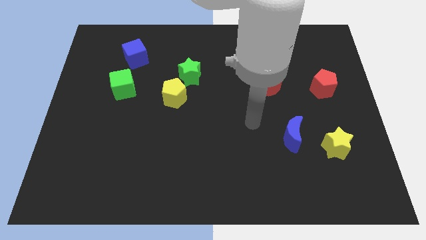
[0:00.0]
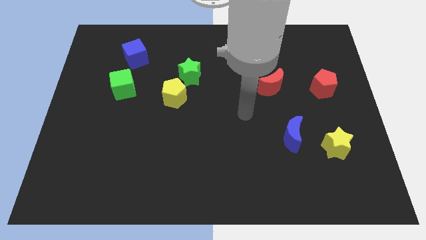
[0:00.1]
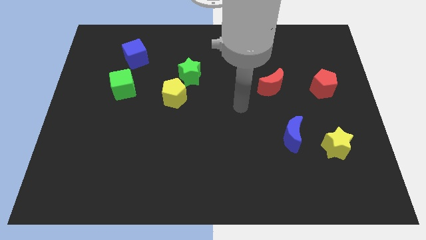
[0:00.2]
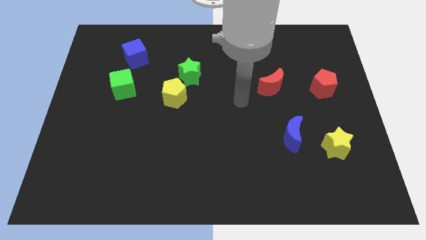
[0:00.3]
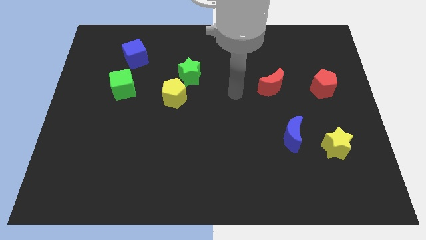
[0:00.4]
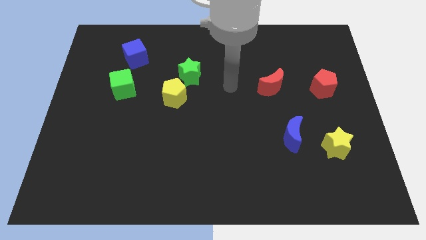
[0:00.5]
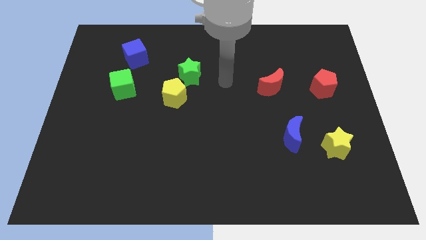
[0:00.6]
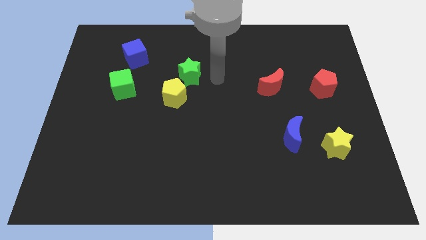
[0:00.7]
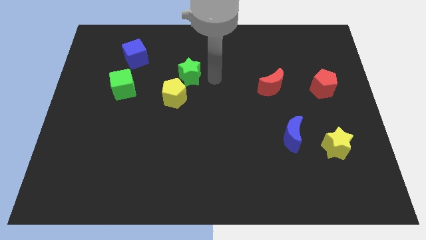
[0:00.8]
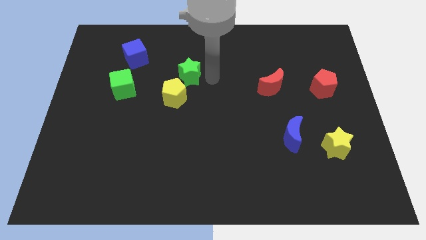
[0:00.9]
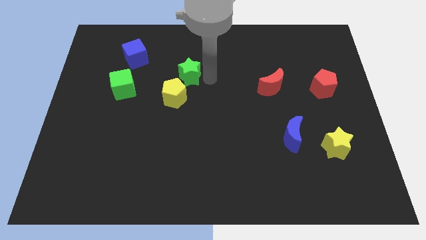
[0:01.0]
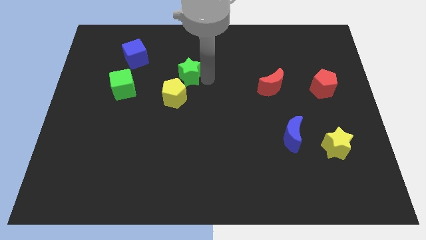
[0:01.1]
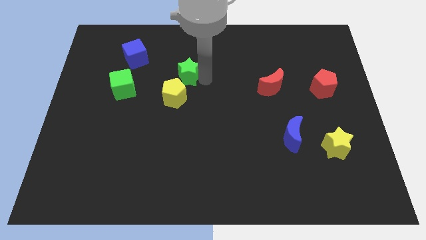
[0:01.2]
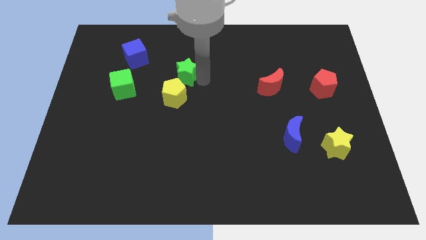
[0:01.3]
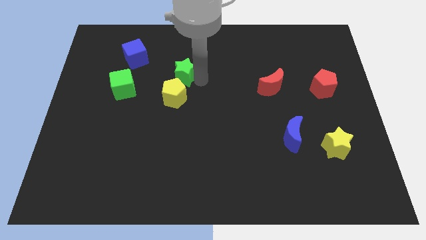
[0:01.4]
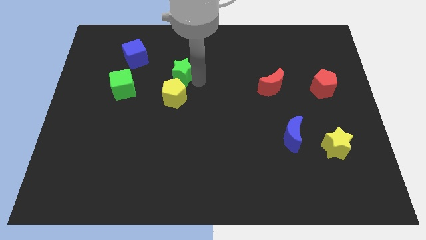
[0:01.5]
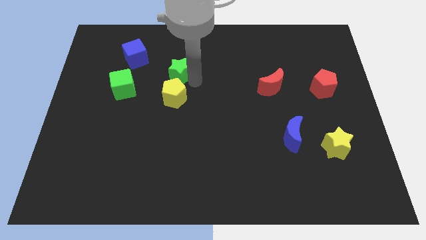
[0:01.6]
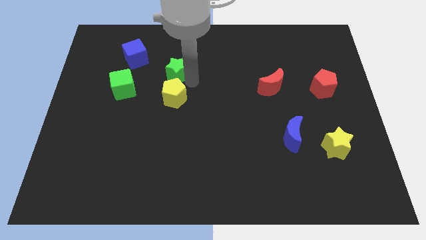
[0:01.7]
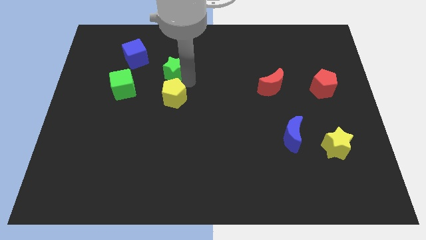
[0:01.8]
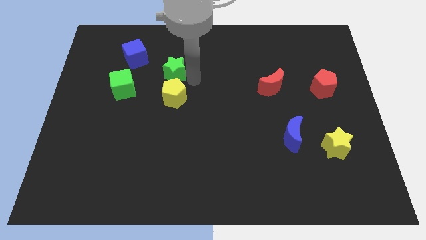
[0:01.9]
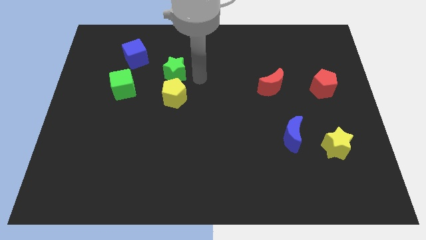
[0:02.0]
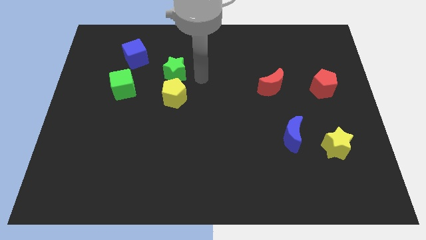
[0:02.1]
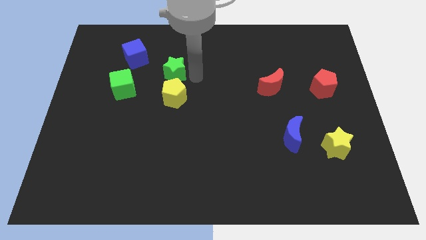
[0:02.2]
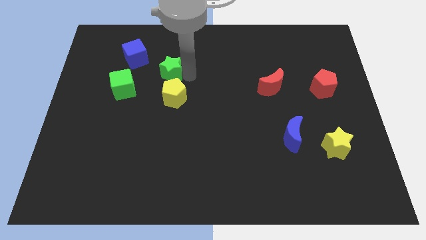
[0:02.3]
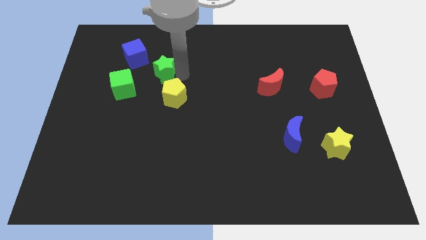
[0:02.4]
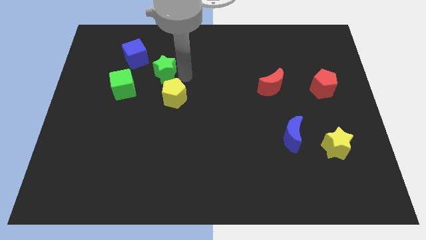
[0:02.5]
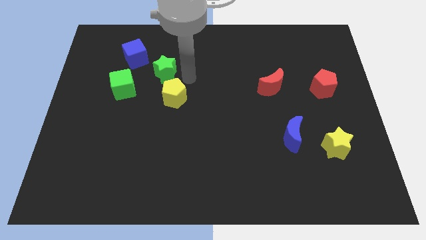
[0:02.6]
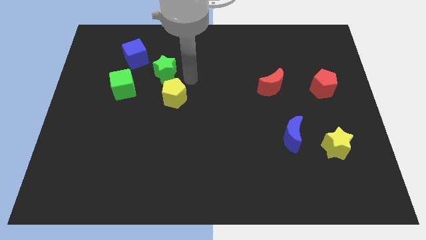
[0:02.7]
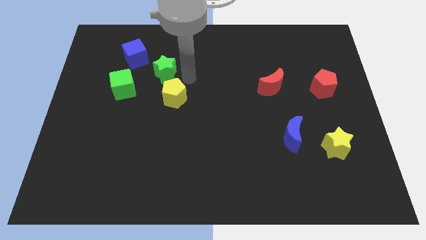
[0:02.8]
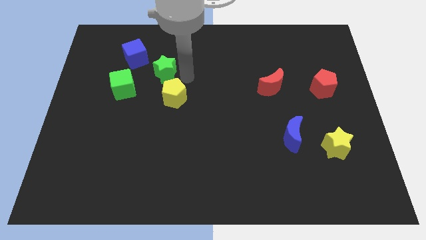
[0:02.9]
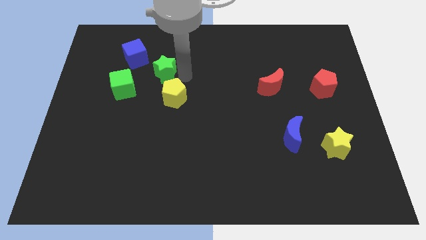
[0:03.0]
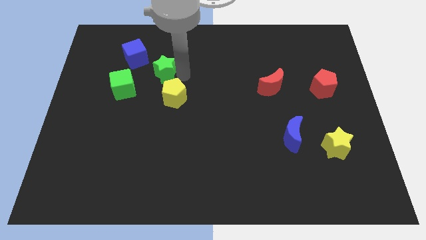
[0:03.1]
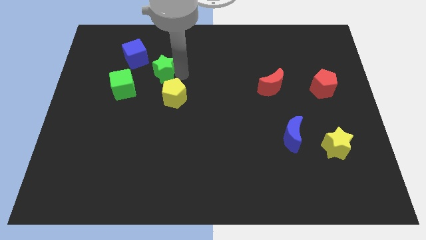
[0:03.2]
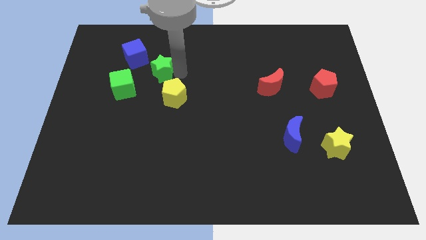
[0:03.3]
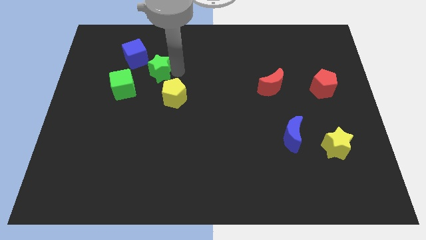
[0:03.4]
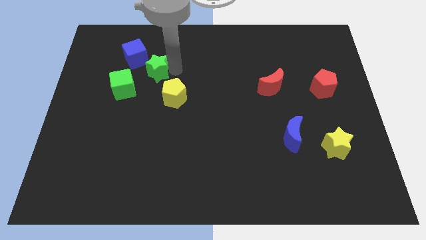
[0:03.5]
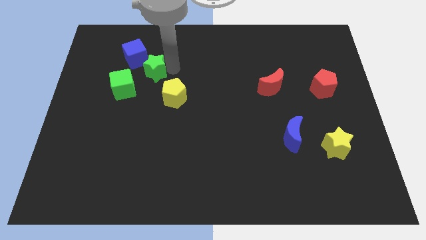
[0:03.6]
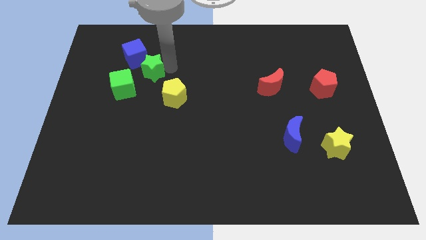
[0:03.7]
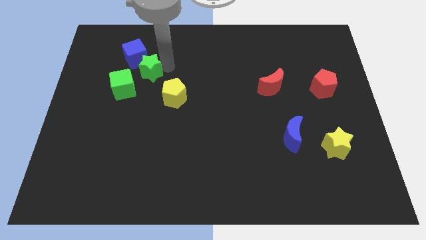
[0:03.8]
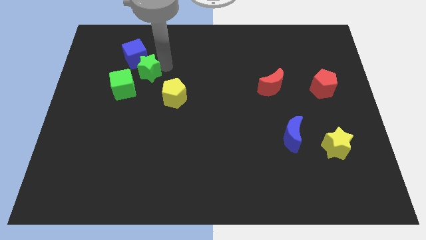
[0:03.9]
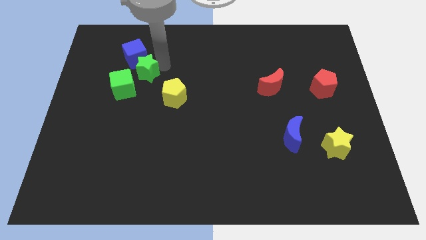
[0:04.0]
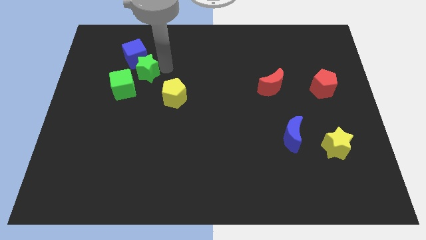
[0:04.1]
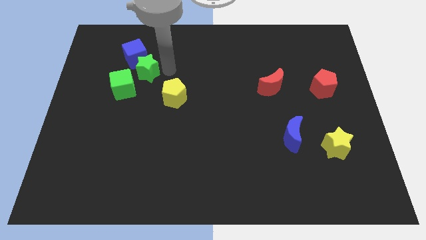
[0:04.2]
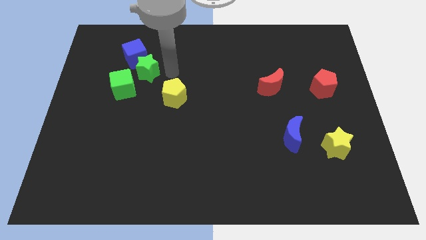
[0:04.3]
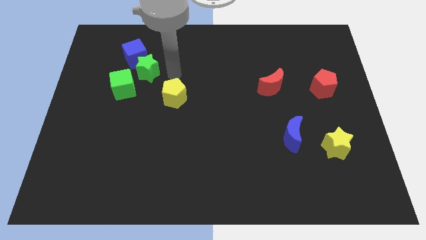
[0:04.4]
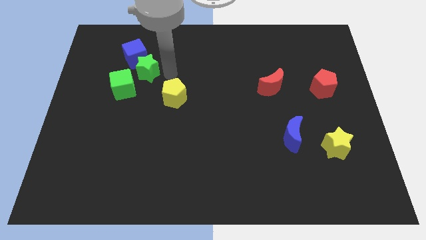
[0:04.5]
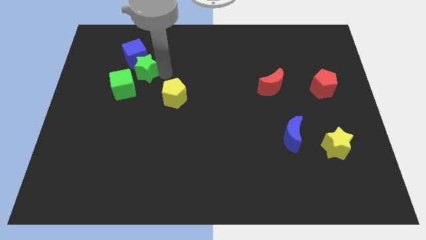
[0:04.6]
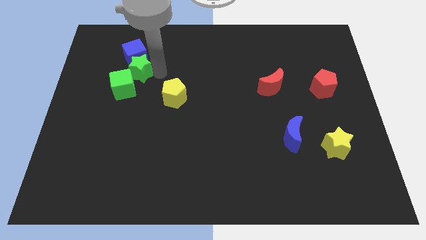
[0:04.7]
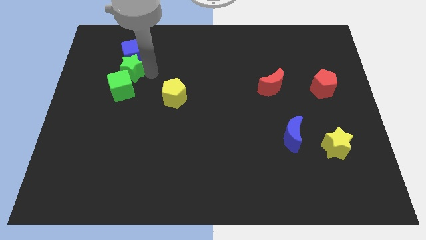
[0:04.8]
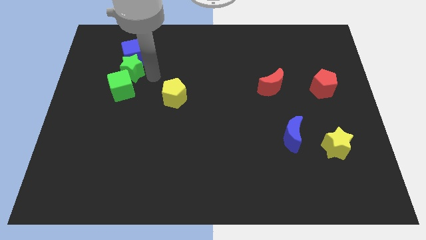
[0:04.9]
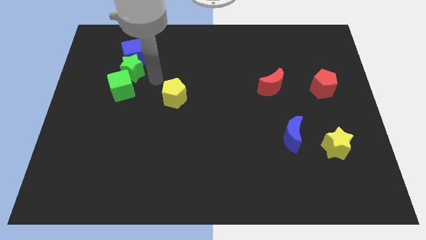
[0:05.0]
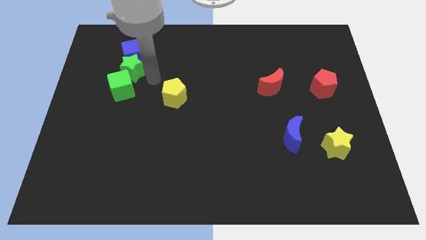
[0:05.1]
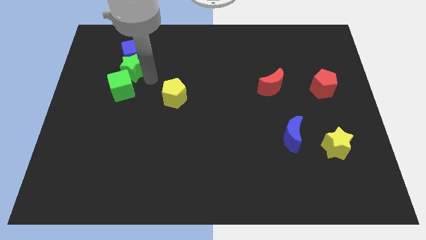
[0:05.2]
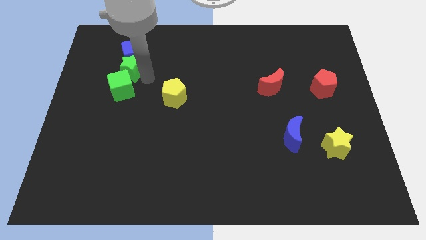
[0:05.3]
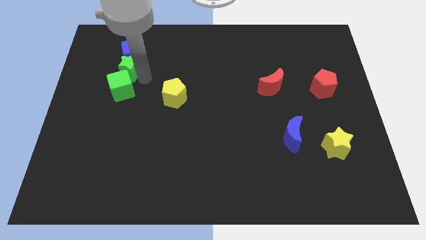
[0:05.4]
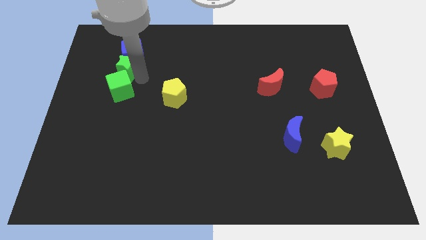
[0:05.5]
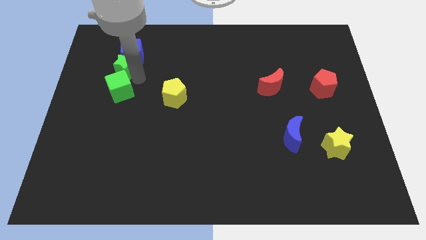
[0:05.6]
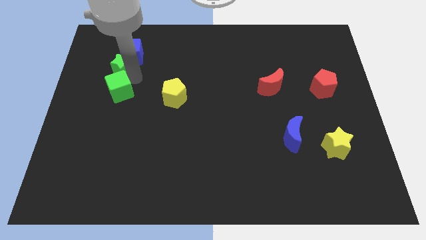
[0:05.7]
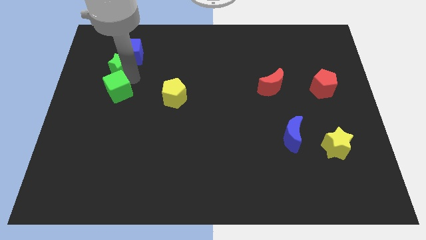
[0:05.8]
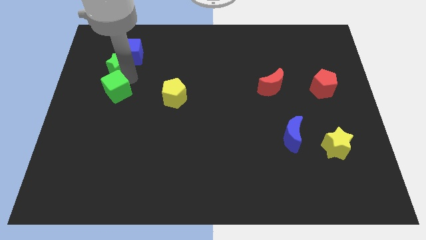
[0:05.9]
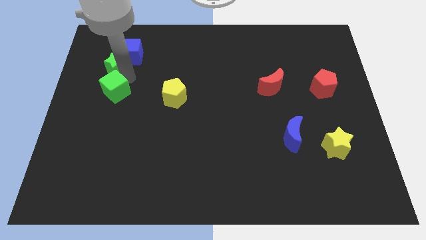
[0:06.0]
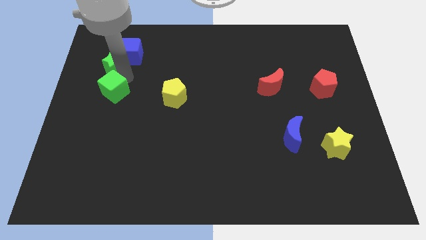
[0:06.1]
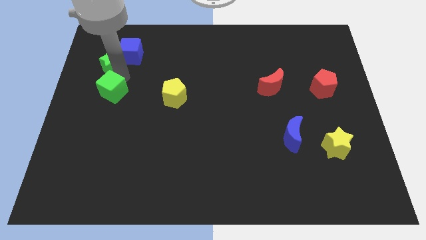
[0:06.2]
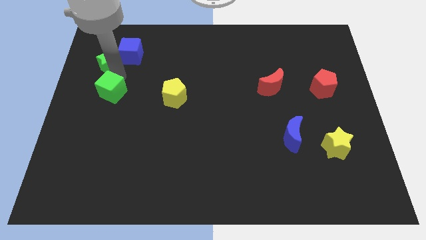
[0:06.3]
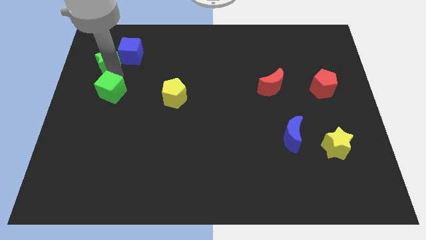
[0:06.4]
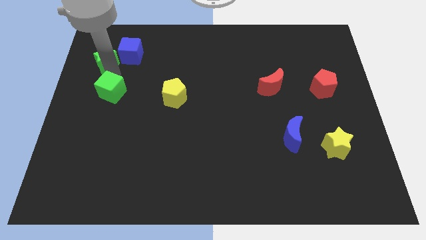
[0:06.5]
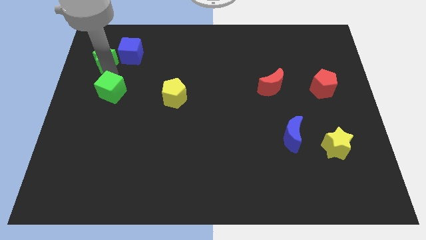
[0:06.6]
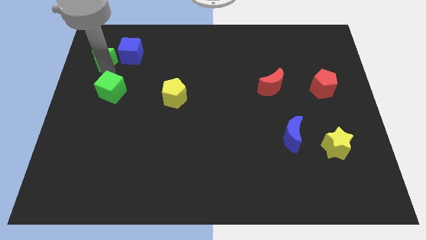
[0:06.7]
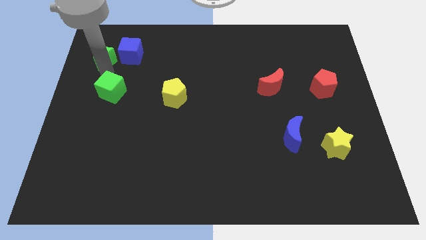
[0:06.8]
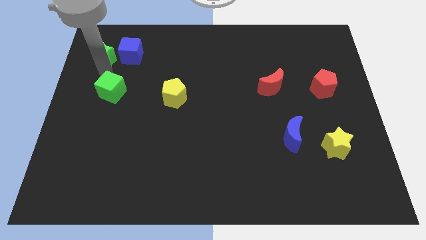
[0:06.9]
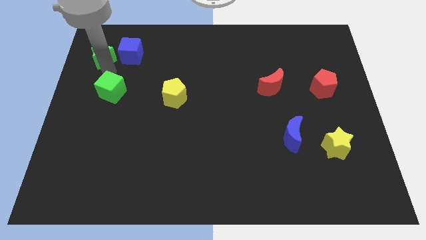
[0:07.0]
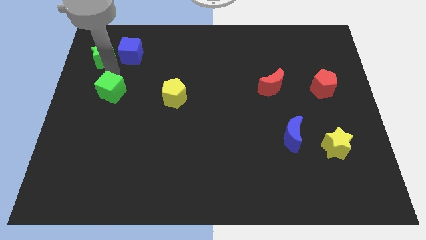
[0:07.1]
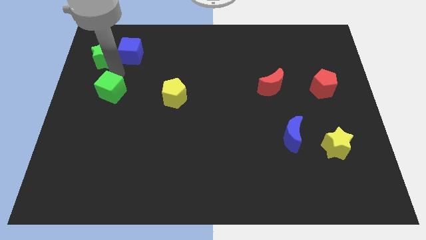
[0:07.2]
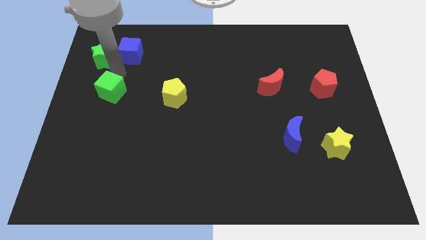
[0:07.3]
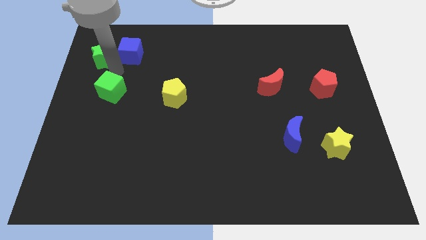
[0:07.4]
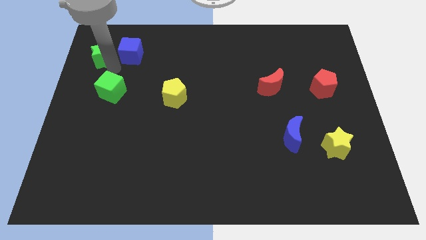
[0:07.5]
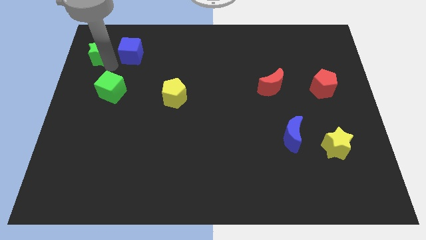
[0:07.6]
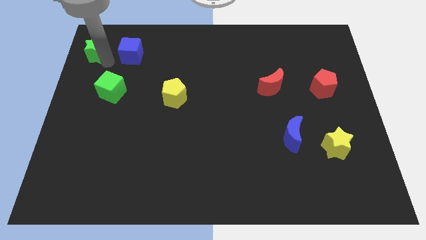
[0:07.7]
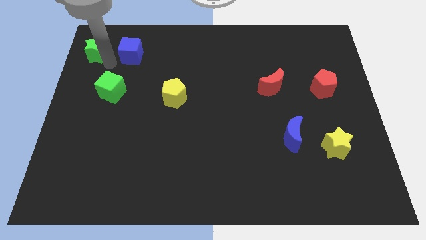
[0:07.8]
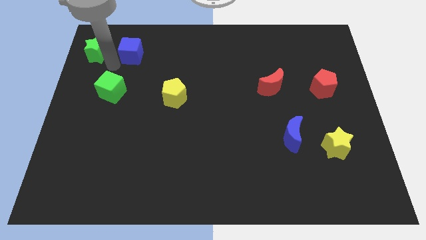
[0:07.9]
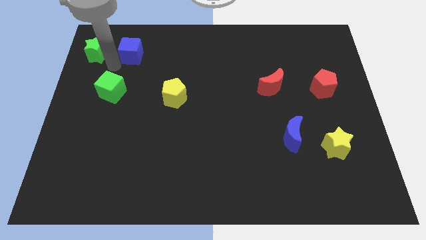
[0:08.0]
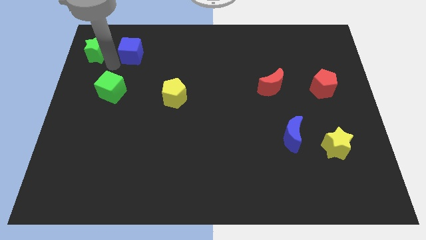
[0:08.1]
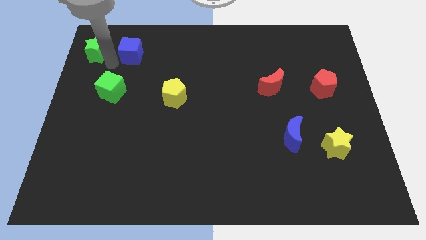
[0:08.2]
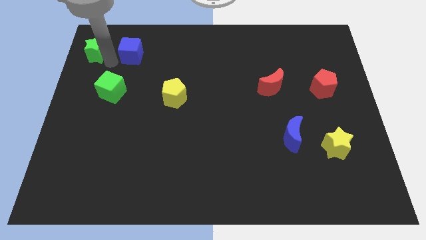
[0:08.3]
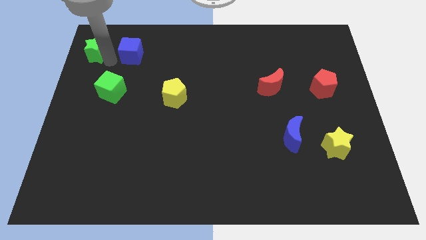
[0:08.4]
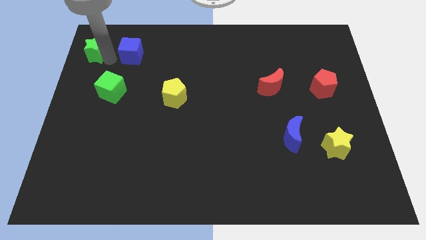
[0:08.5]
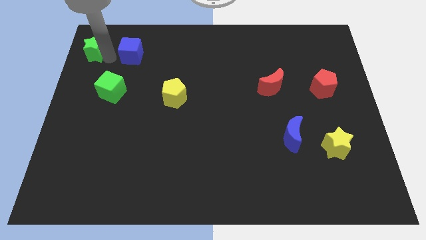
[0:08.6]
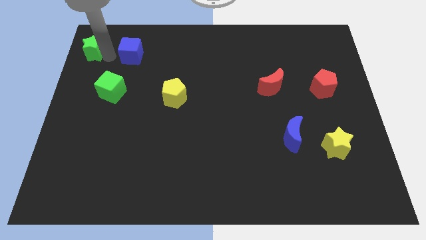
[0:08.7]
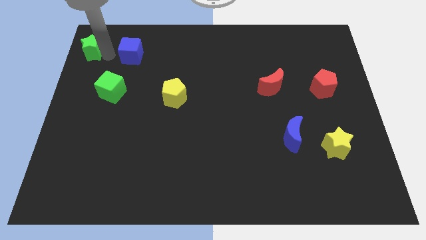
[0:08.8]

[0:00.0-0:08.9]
push the green star to the top left
